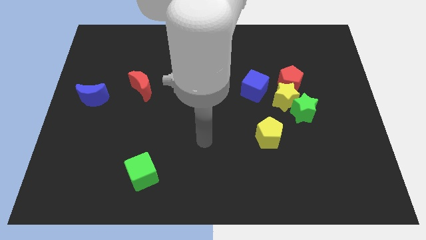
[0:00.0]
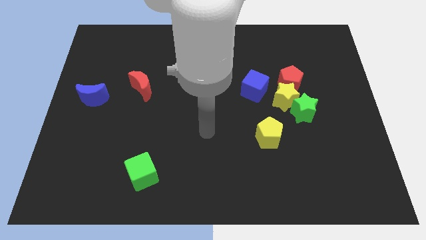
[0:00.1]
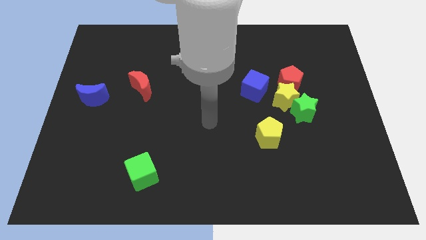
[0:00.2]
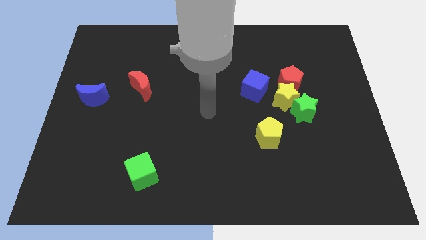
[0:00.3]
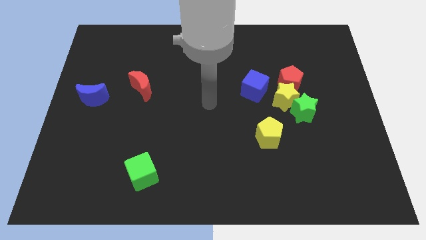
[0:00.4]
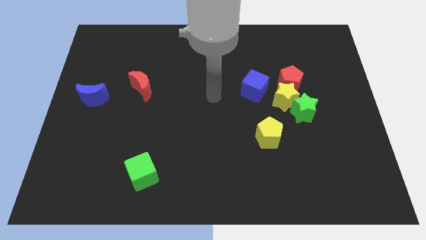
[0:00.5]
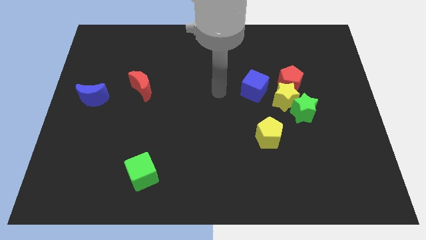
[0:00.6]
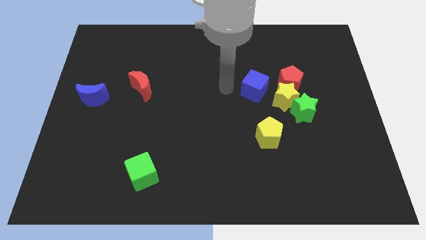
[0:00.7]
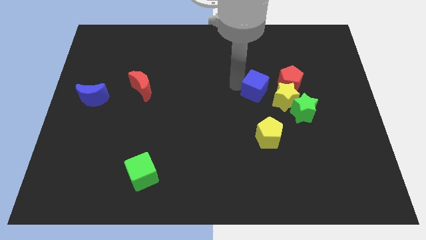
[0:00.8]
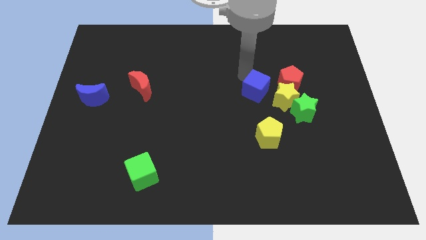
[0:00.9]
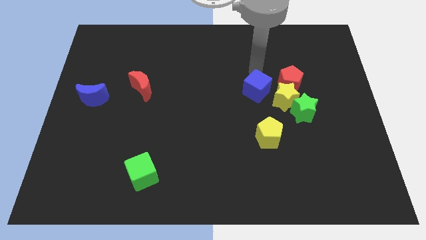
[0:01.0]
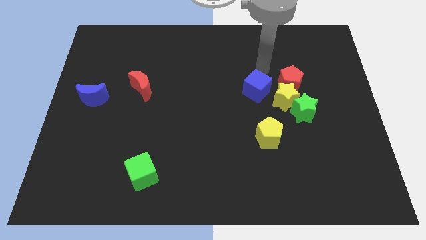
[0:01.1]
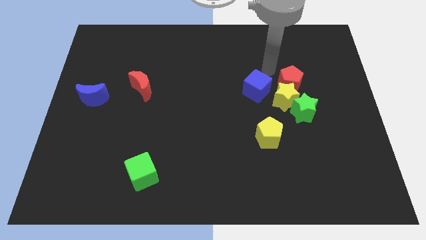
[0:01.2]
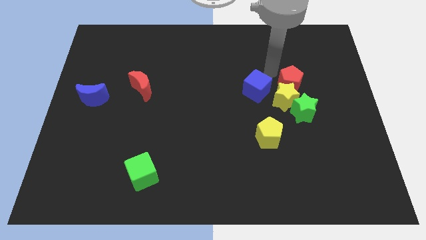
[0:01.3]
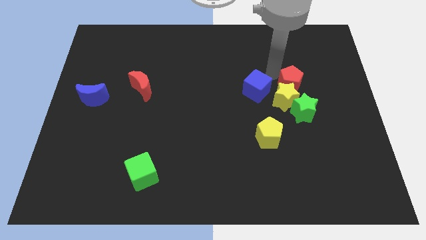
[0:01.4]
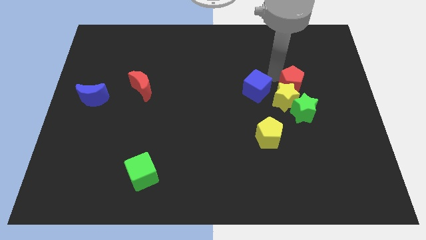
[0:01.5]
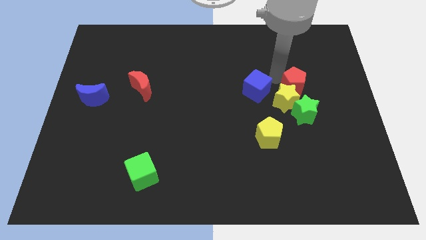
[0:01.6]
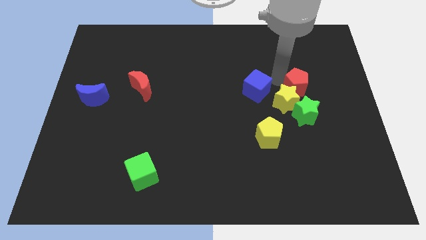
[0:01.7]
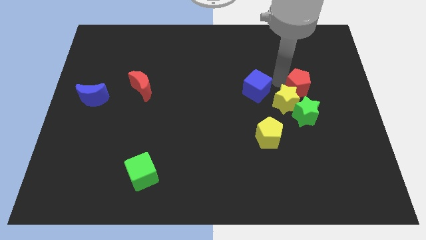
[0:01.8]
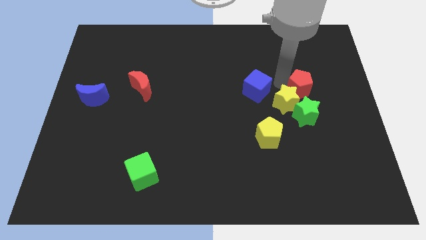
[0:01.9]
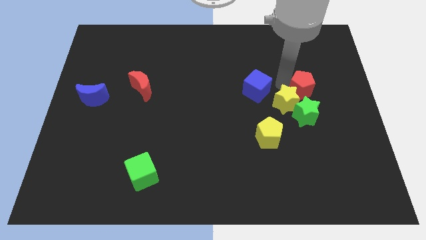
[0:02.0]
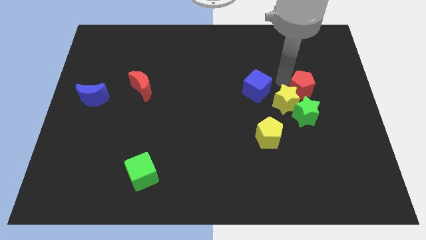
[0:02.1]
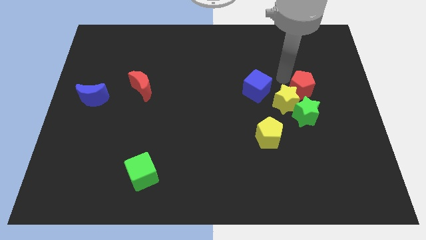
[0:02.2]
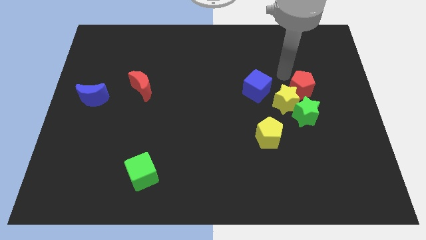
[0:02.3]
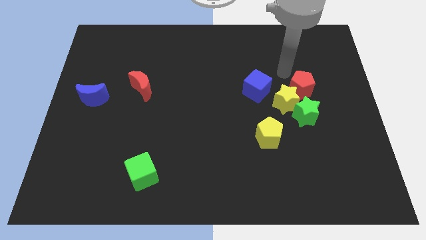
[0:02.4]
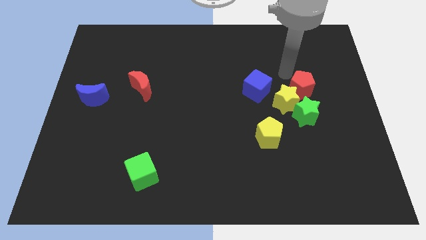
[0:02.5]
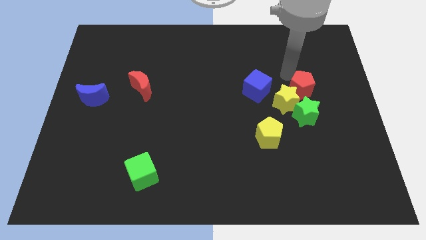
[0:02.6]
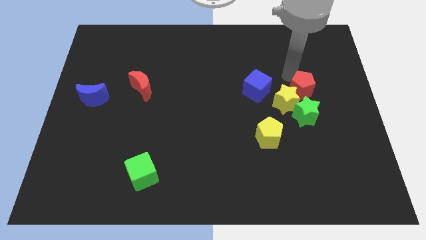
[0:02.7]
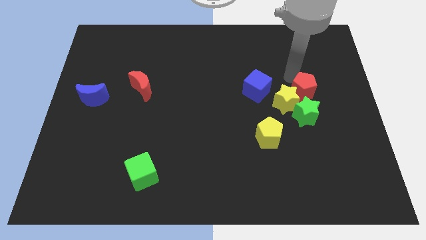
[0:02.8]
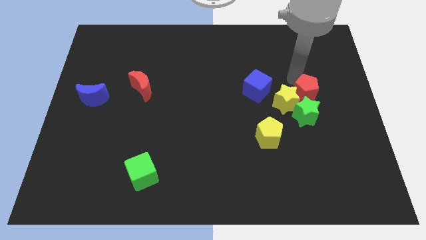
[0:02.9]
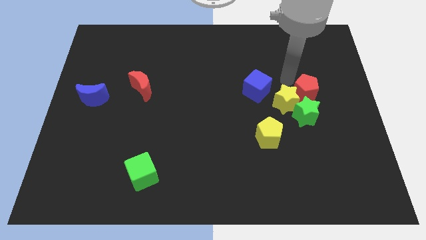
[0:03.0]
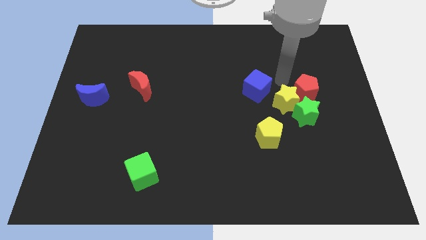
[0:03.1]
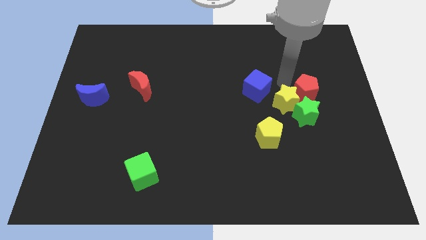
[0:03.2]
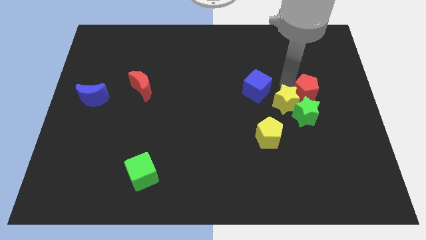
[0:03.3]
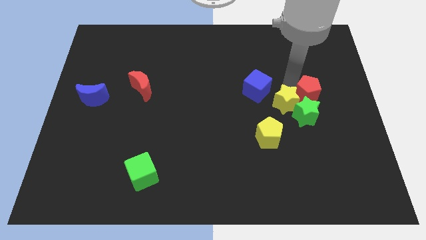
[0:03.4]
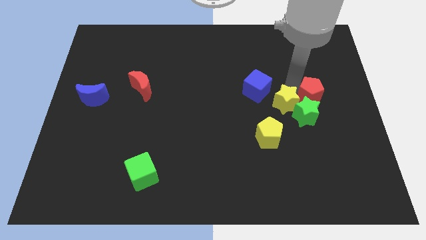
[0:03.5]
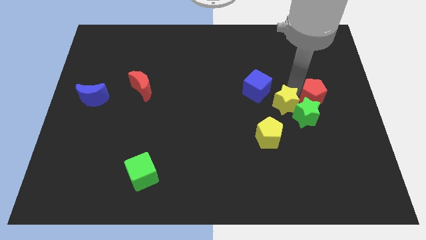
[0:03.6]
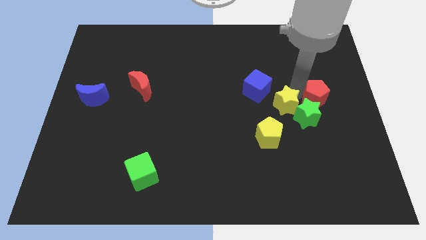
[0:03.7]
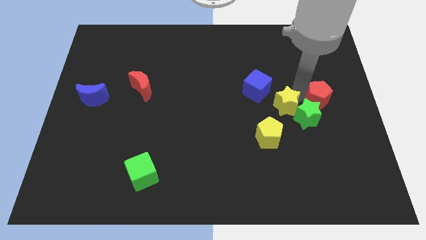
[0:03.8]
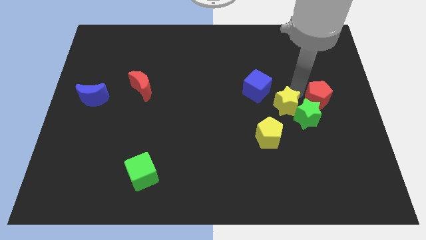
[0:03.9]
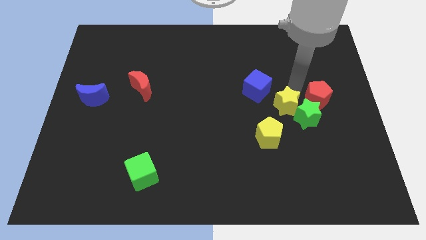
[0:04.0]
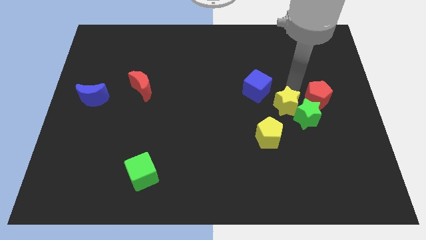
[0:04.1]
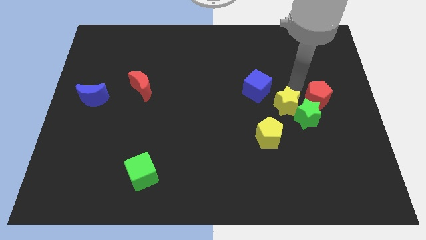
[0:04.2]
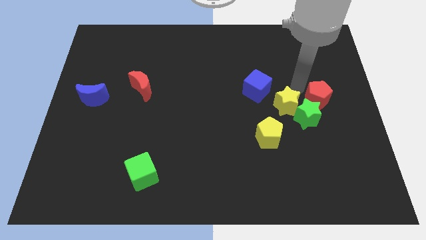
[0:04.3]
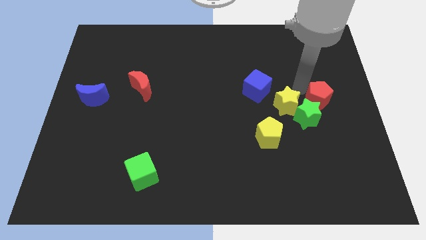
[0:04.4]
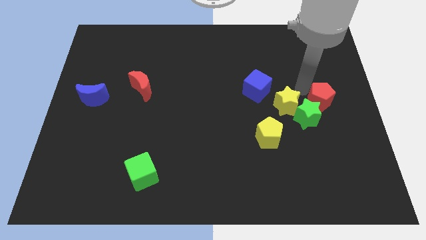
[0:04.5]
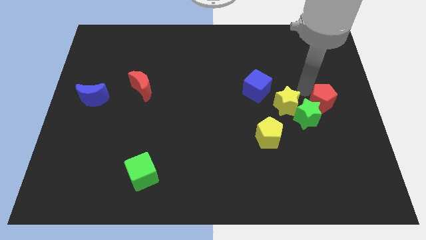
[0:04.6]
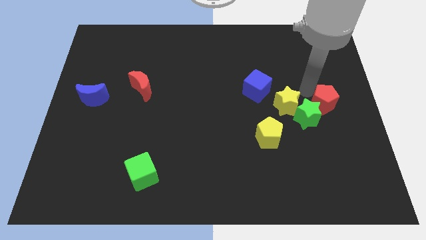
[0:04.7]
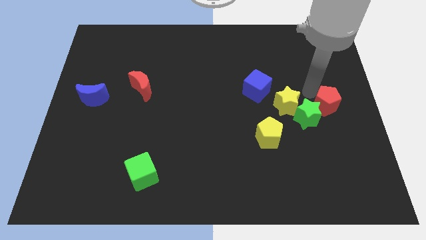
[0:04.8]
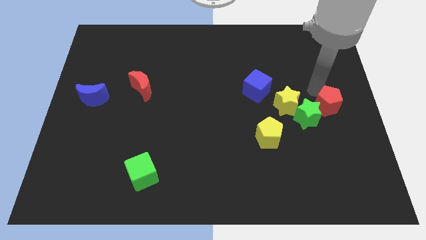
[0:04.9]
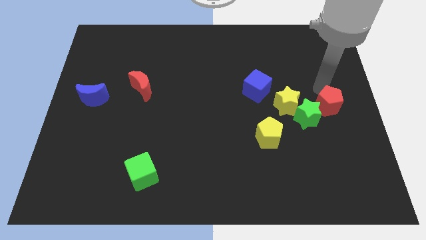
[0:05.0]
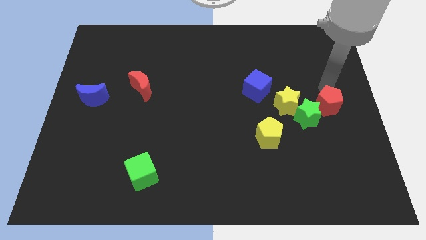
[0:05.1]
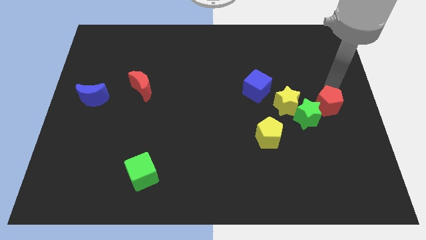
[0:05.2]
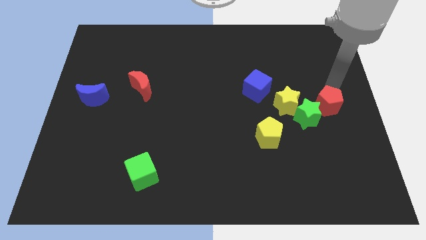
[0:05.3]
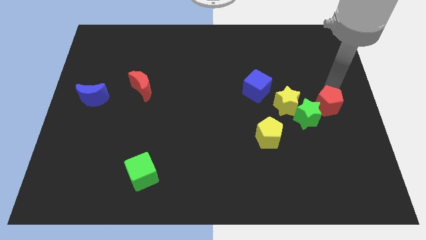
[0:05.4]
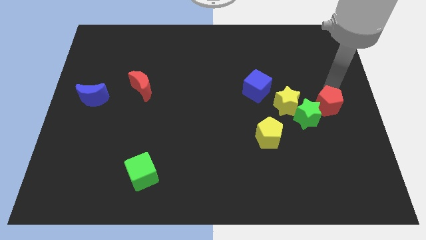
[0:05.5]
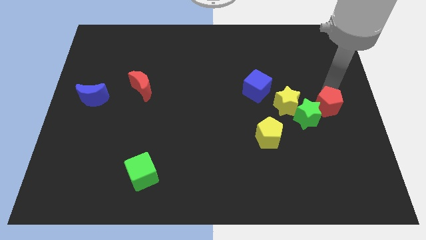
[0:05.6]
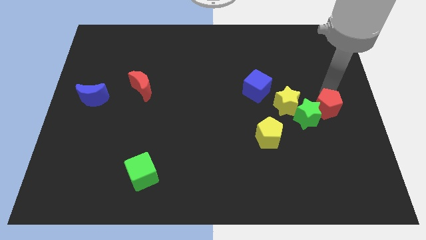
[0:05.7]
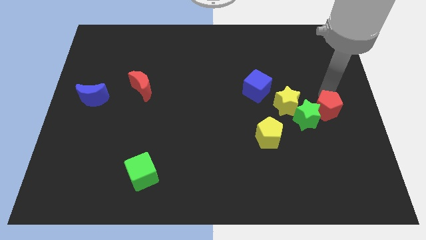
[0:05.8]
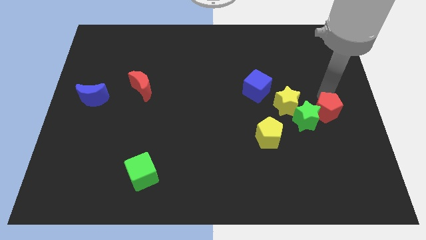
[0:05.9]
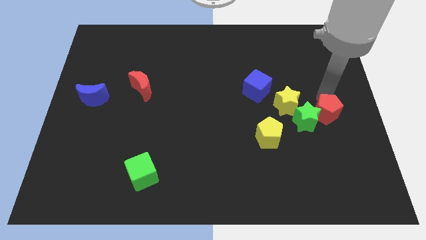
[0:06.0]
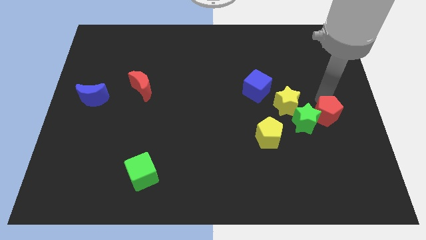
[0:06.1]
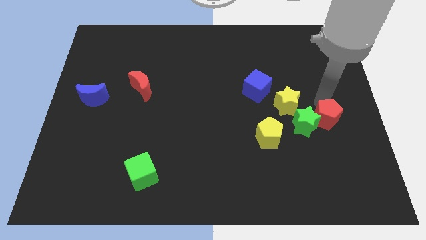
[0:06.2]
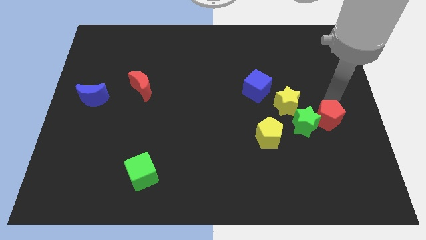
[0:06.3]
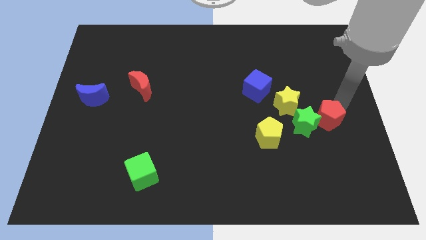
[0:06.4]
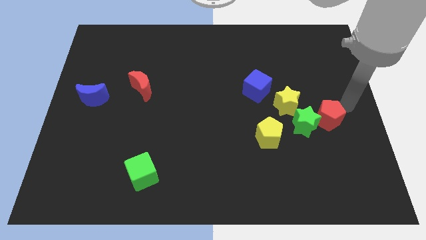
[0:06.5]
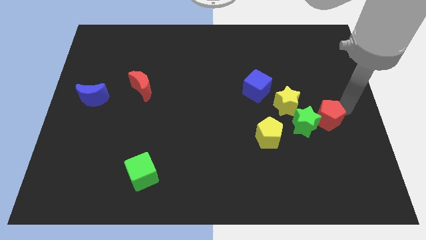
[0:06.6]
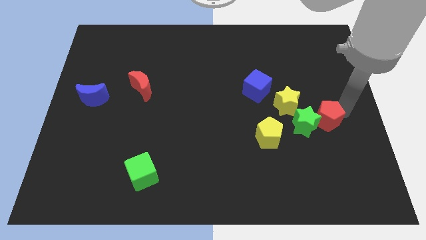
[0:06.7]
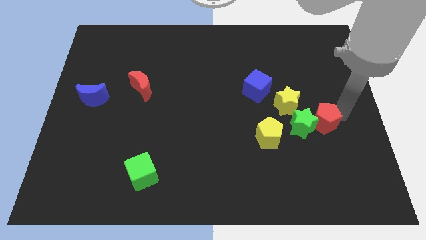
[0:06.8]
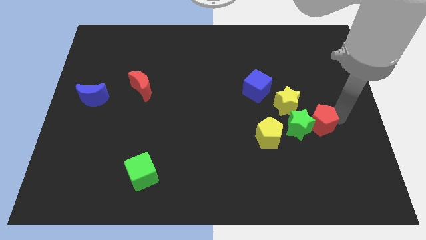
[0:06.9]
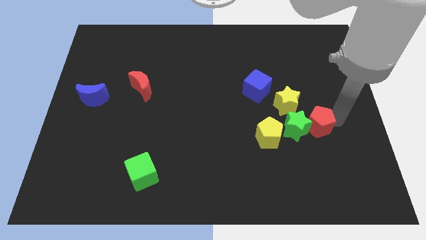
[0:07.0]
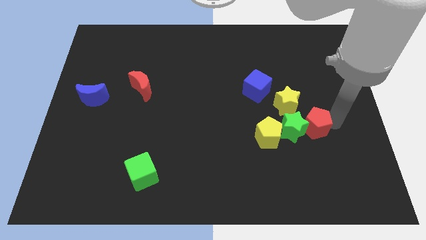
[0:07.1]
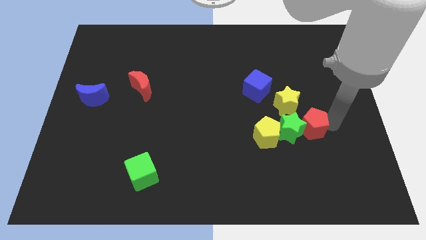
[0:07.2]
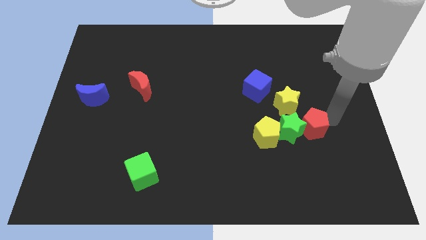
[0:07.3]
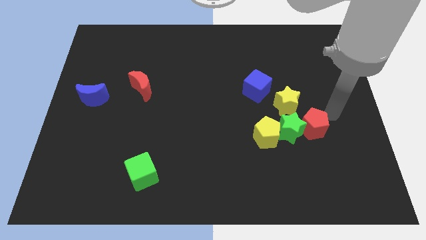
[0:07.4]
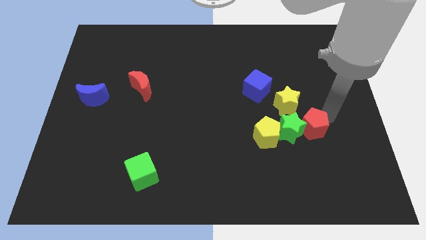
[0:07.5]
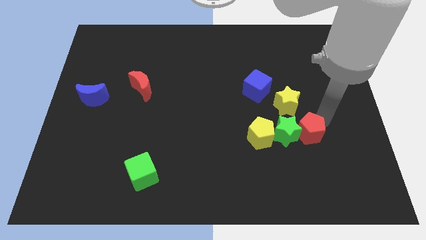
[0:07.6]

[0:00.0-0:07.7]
put the red pentagon to the bottom side of the yellow star
